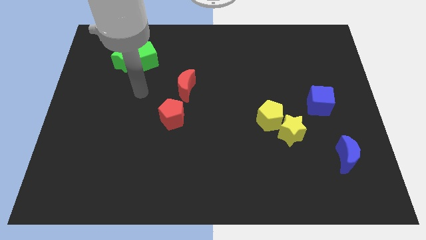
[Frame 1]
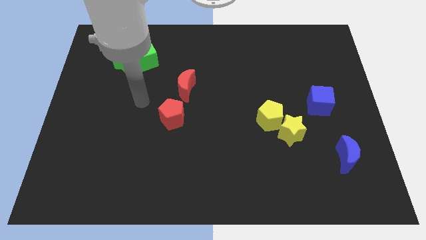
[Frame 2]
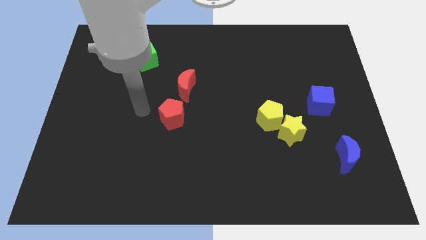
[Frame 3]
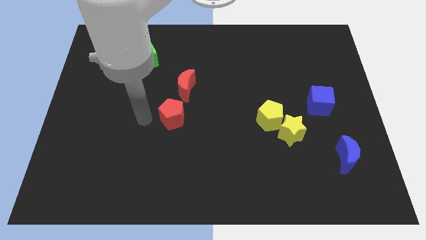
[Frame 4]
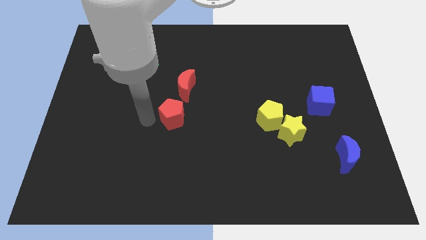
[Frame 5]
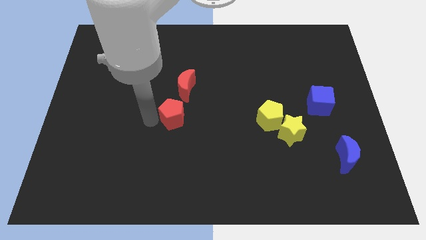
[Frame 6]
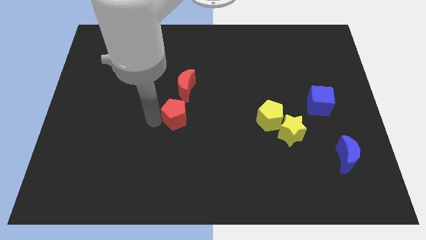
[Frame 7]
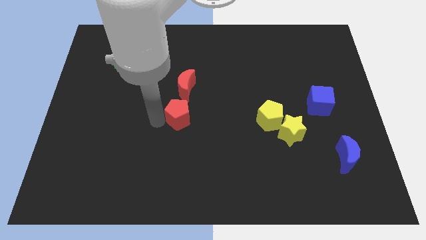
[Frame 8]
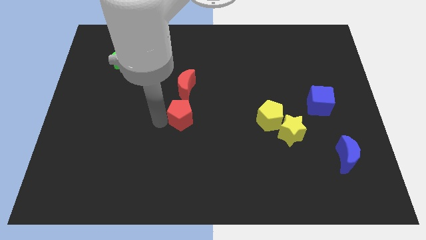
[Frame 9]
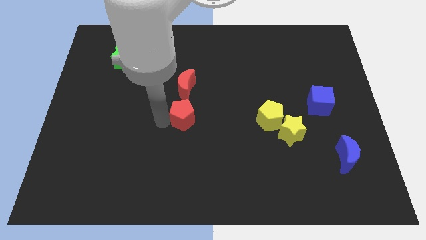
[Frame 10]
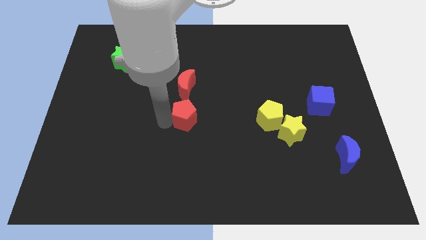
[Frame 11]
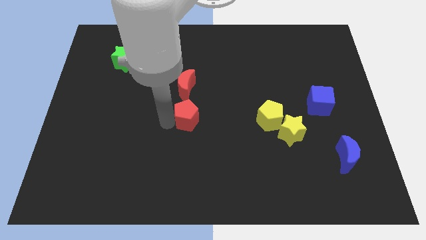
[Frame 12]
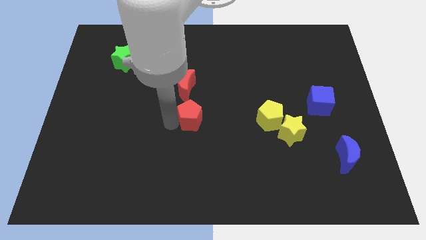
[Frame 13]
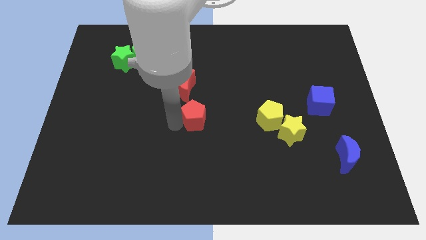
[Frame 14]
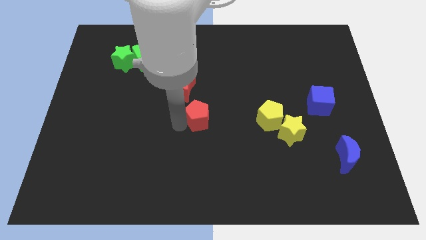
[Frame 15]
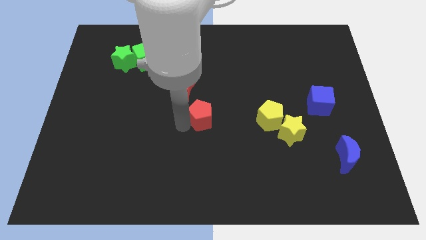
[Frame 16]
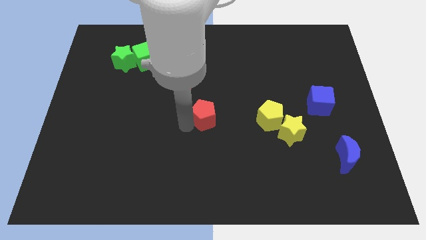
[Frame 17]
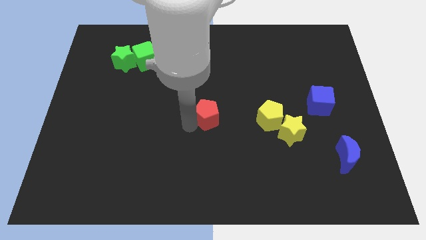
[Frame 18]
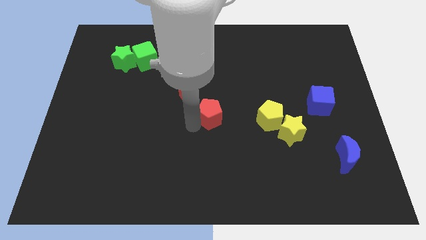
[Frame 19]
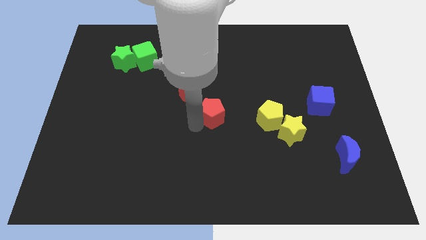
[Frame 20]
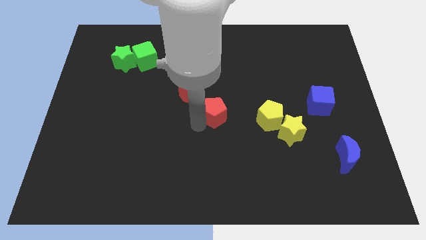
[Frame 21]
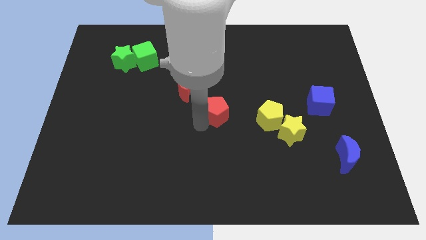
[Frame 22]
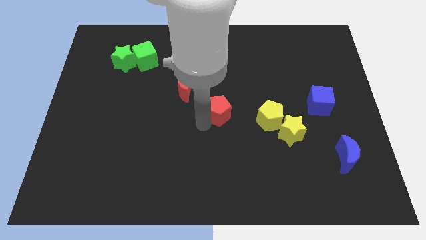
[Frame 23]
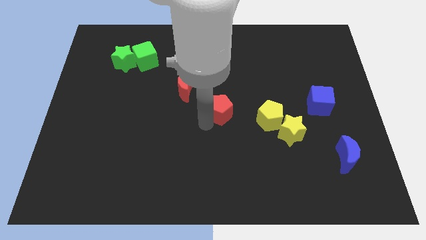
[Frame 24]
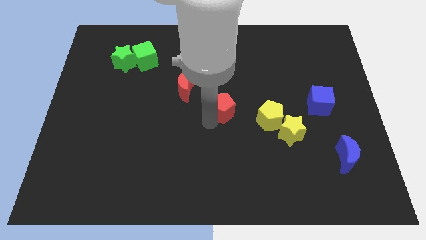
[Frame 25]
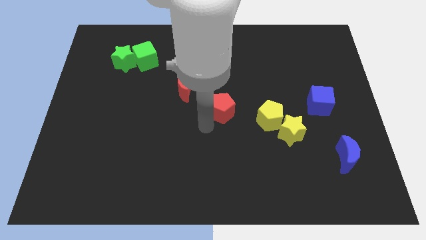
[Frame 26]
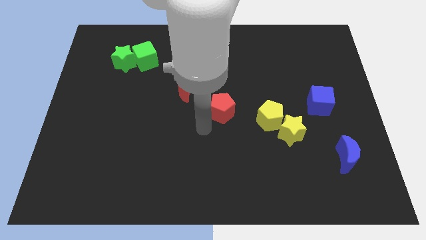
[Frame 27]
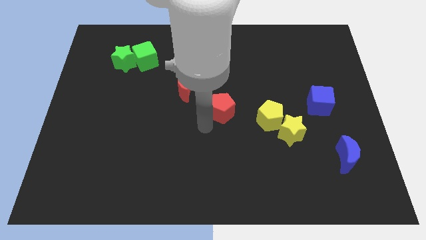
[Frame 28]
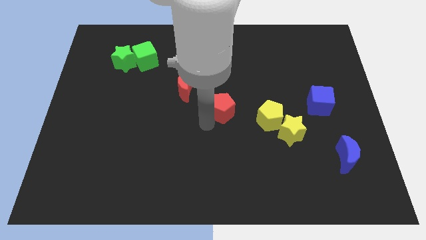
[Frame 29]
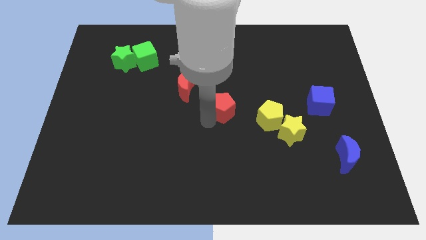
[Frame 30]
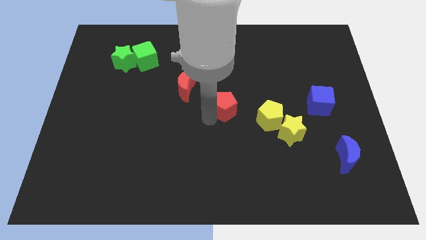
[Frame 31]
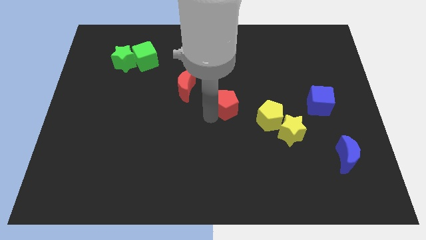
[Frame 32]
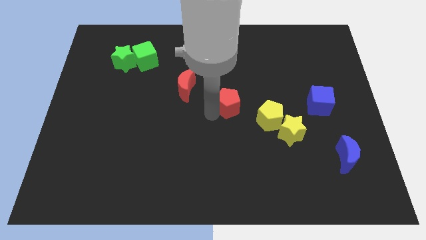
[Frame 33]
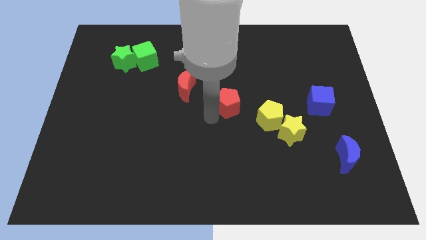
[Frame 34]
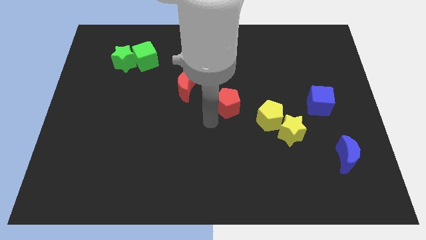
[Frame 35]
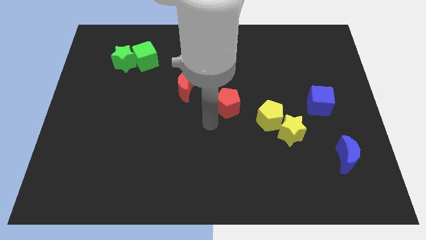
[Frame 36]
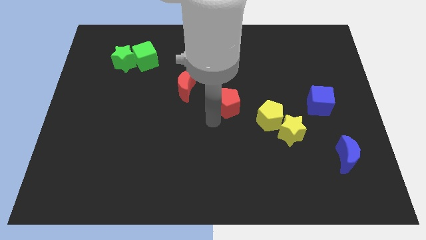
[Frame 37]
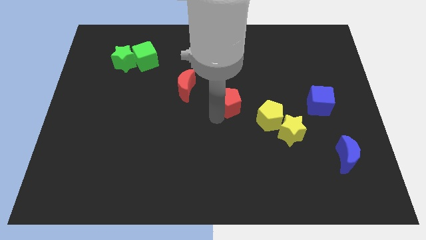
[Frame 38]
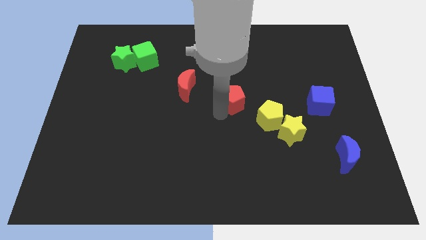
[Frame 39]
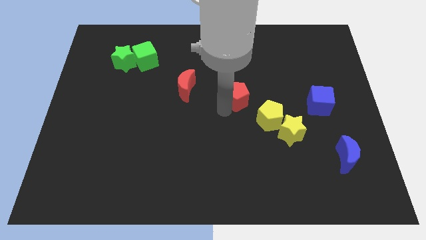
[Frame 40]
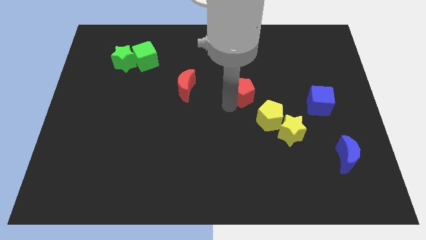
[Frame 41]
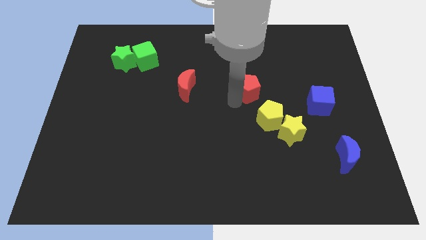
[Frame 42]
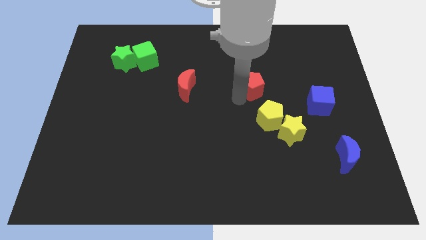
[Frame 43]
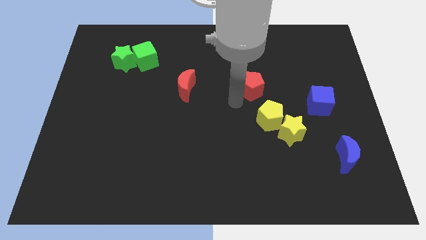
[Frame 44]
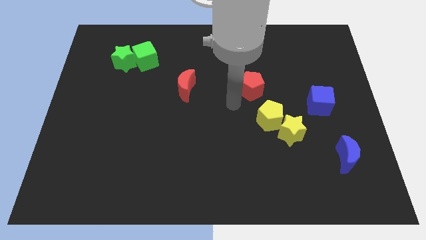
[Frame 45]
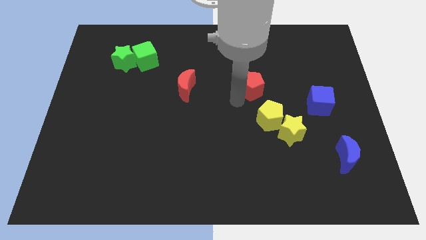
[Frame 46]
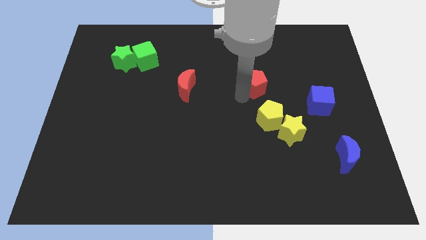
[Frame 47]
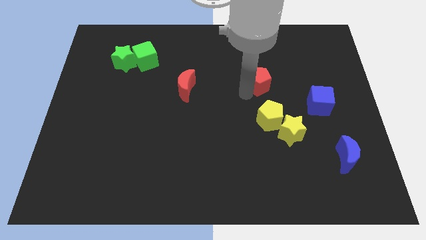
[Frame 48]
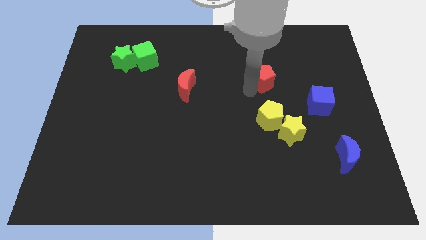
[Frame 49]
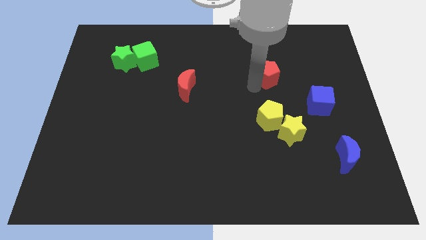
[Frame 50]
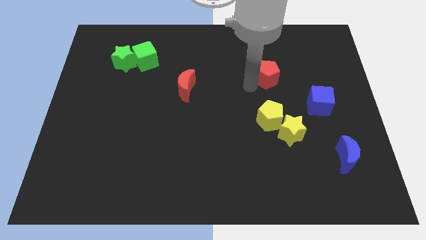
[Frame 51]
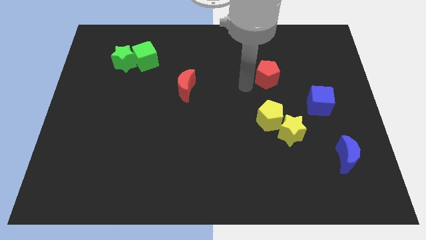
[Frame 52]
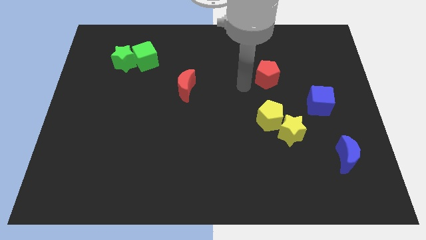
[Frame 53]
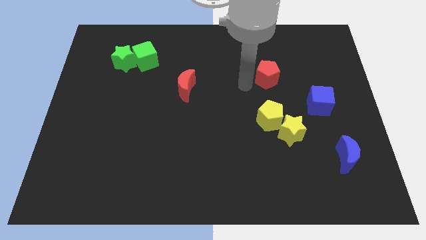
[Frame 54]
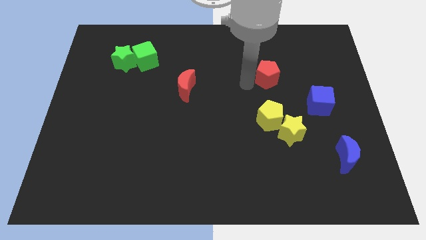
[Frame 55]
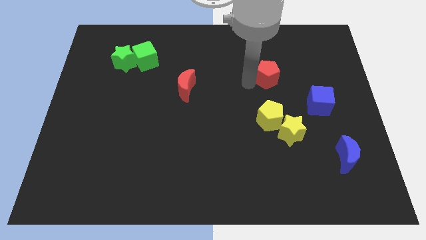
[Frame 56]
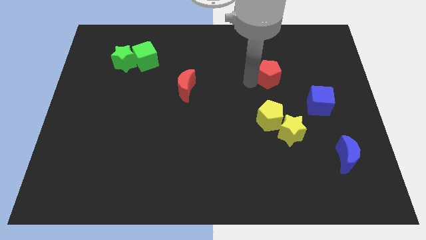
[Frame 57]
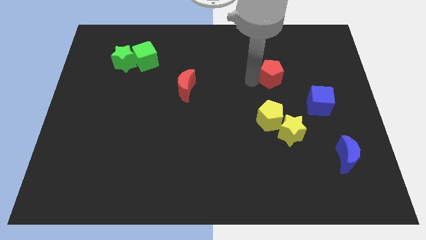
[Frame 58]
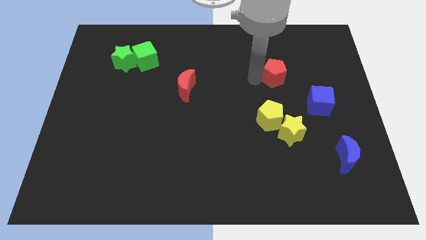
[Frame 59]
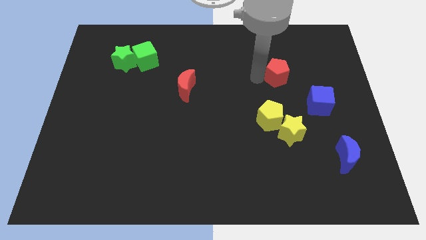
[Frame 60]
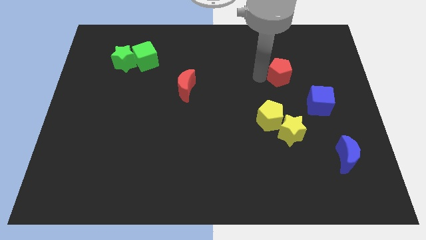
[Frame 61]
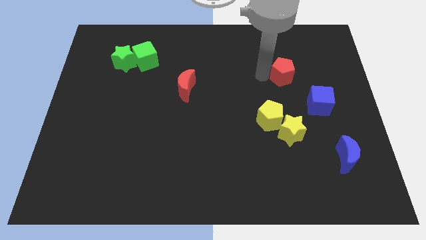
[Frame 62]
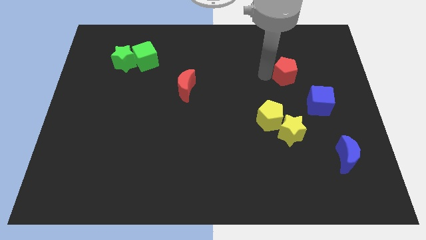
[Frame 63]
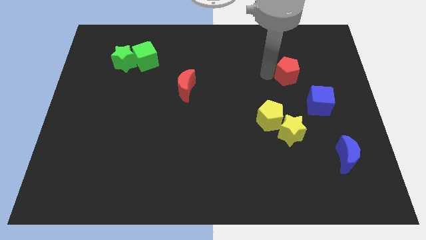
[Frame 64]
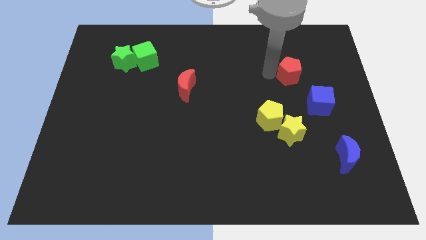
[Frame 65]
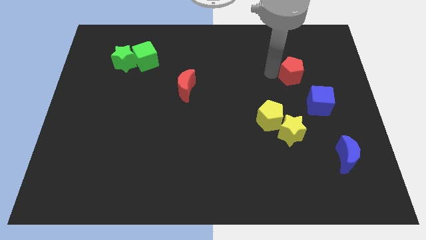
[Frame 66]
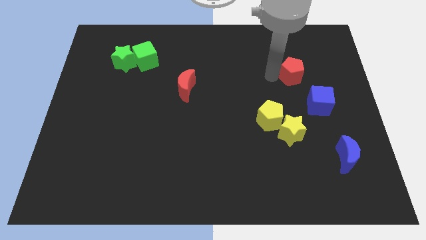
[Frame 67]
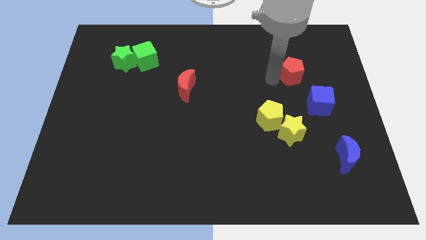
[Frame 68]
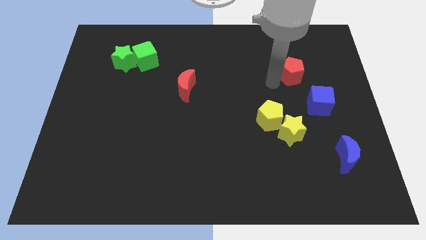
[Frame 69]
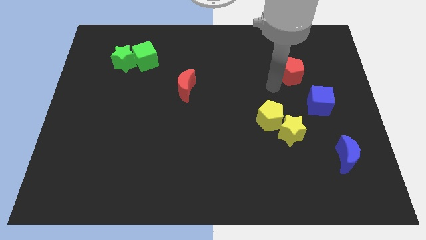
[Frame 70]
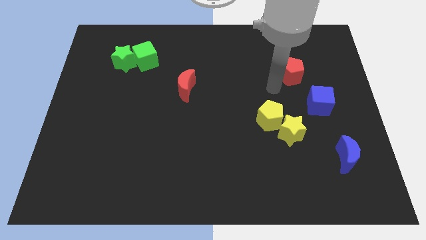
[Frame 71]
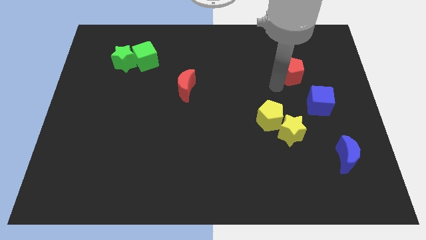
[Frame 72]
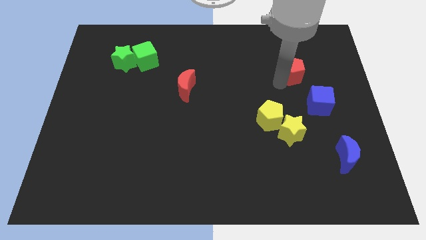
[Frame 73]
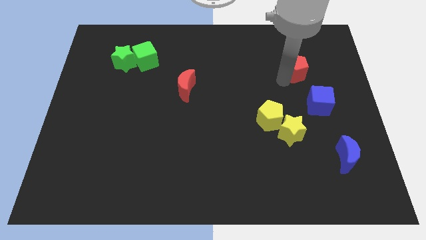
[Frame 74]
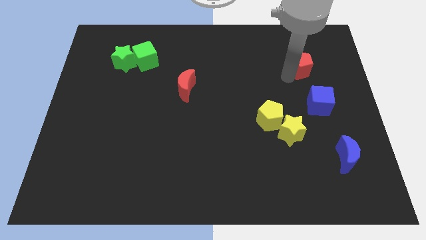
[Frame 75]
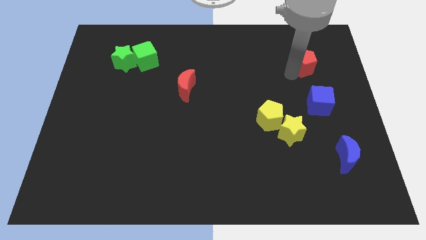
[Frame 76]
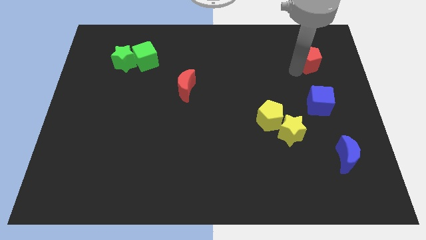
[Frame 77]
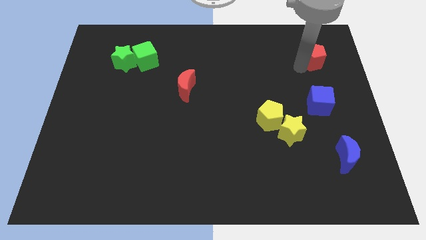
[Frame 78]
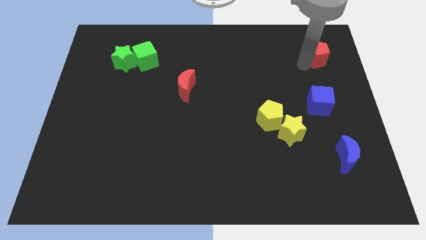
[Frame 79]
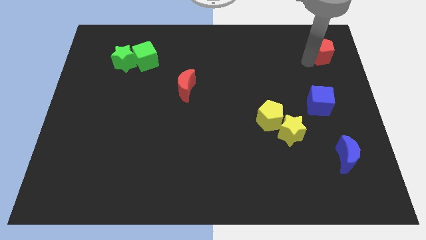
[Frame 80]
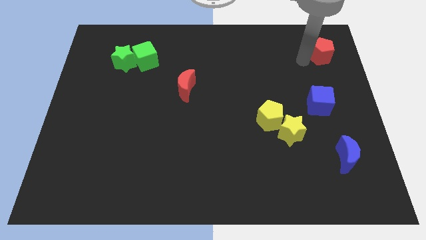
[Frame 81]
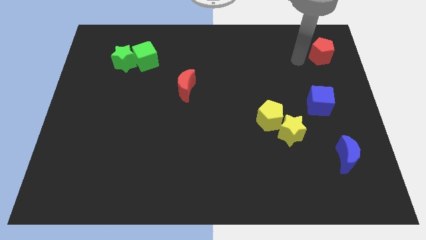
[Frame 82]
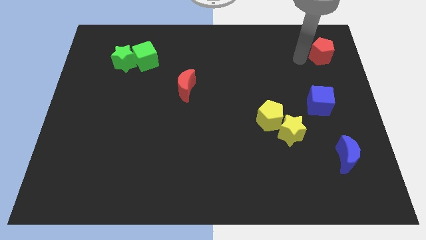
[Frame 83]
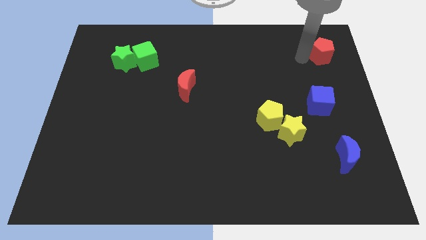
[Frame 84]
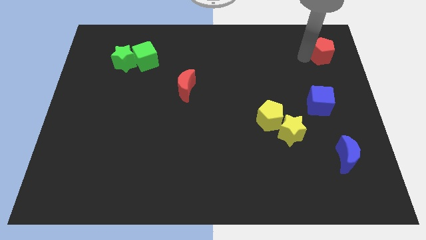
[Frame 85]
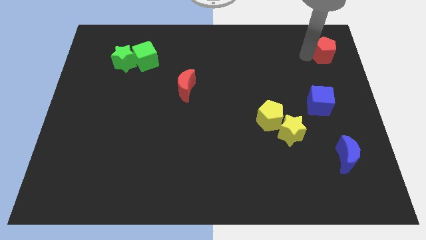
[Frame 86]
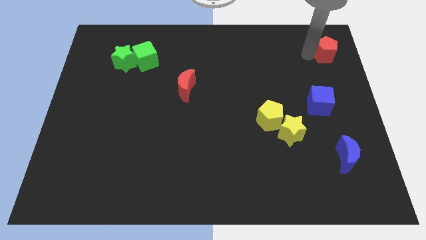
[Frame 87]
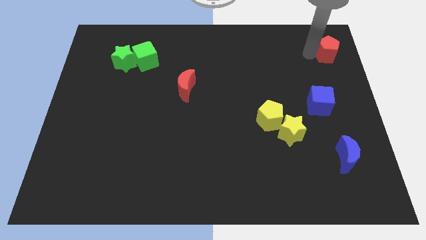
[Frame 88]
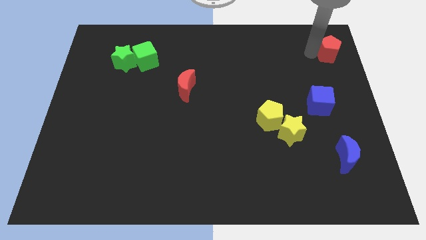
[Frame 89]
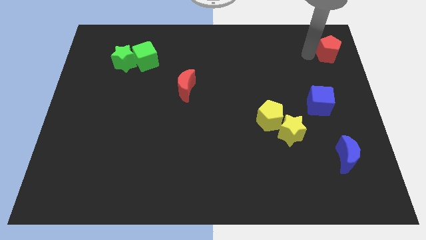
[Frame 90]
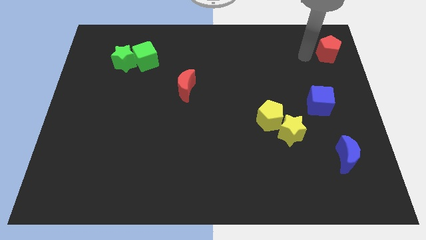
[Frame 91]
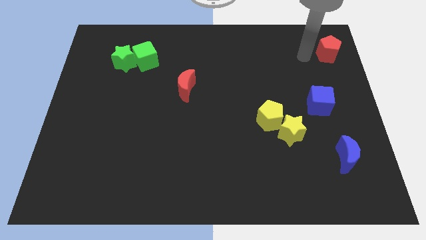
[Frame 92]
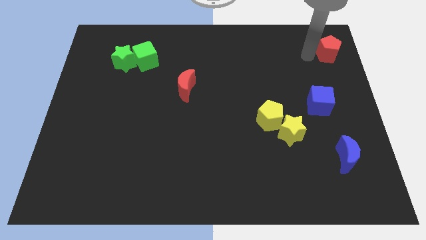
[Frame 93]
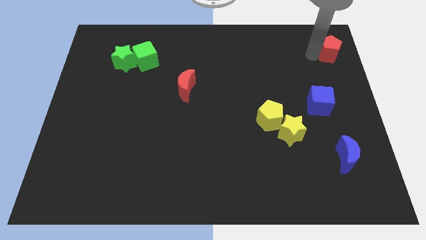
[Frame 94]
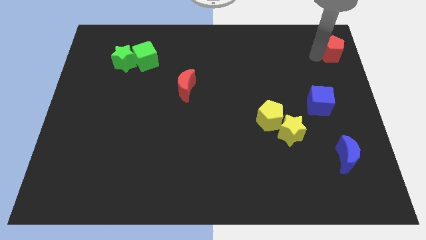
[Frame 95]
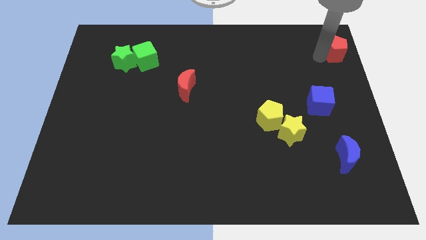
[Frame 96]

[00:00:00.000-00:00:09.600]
move the red pentagon to the top right corner
